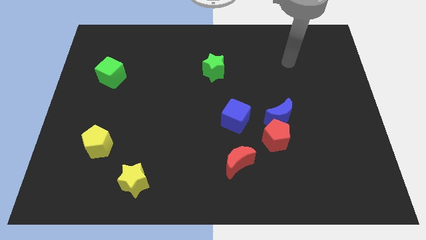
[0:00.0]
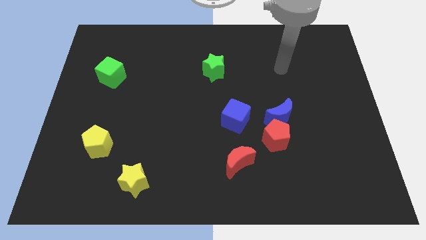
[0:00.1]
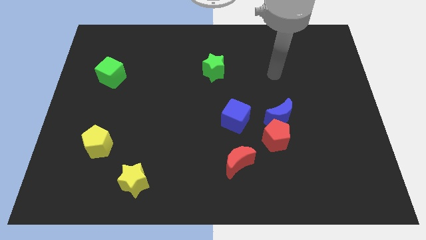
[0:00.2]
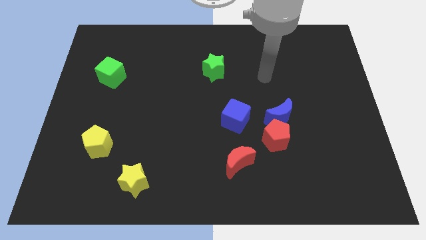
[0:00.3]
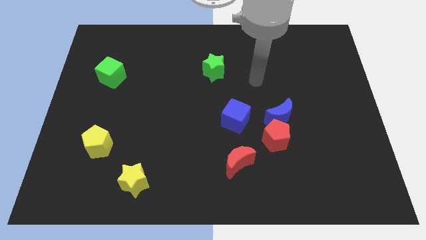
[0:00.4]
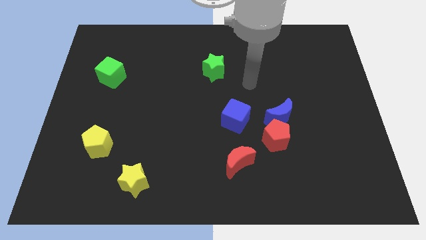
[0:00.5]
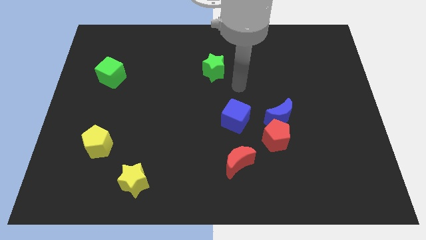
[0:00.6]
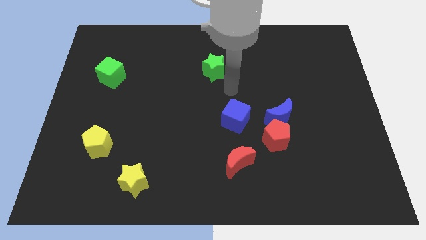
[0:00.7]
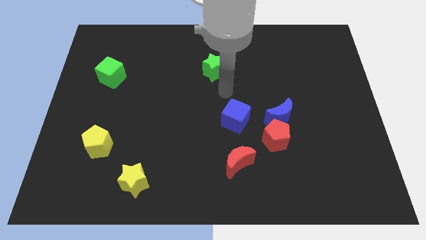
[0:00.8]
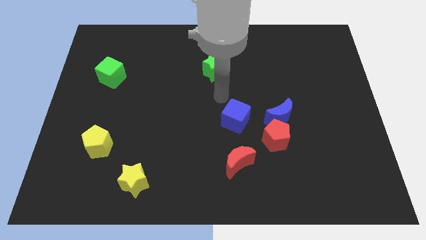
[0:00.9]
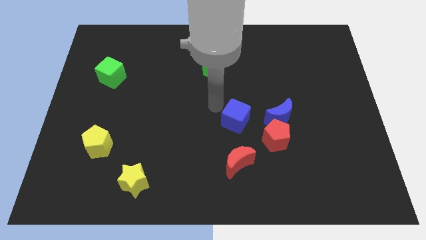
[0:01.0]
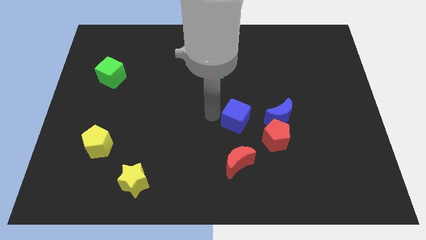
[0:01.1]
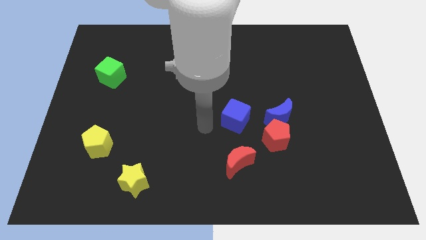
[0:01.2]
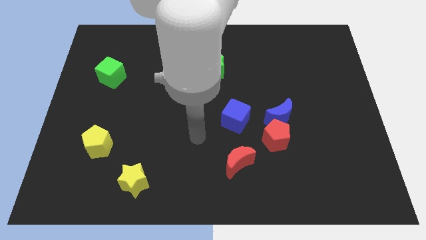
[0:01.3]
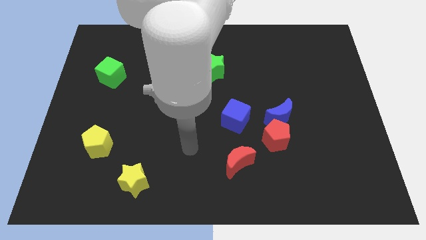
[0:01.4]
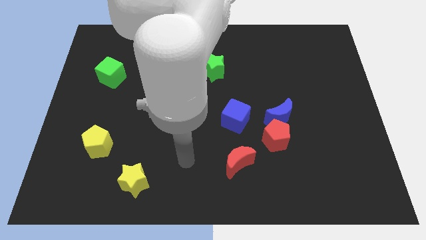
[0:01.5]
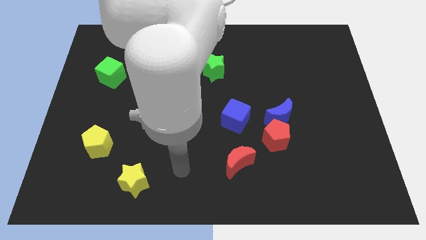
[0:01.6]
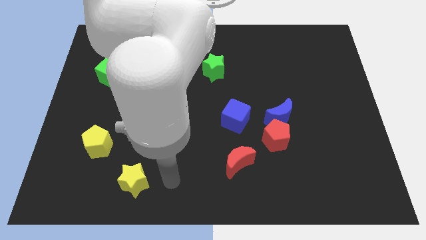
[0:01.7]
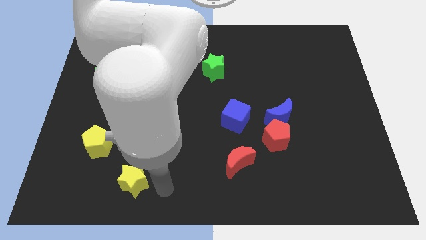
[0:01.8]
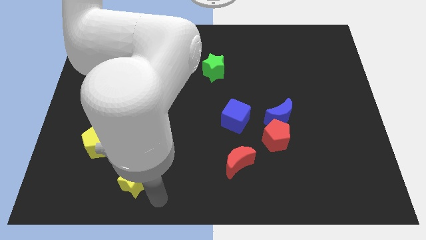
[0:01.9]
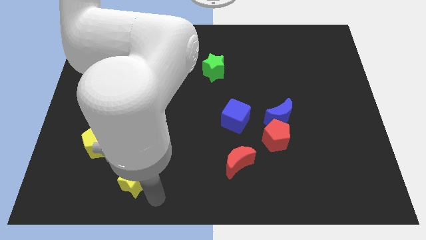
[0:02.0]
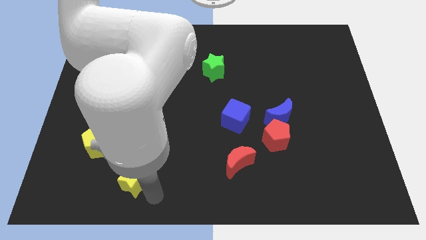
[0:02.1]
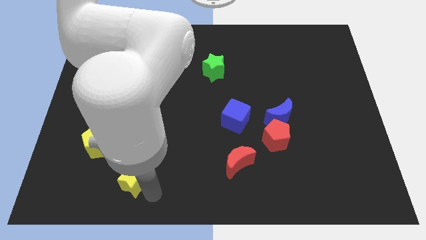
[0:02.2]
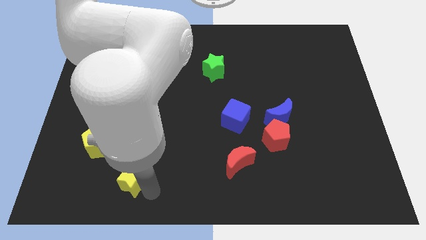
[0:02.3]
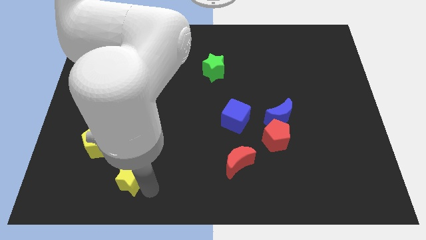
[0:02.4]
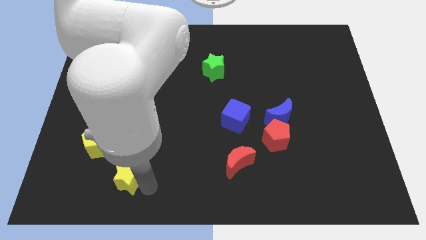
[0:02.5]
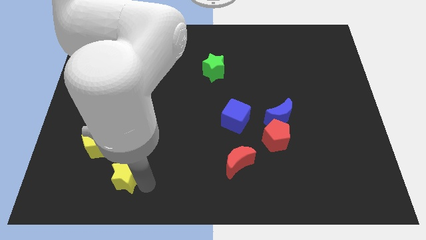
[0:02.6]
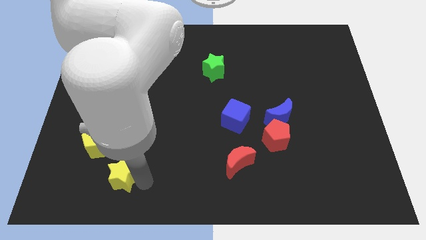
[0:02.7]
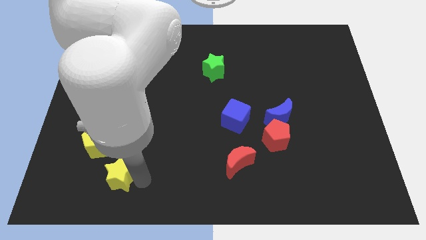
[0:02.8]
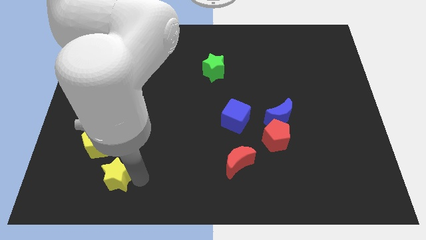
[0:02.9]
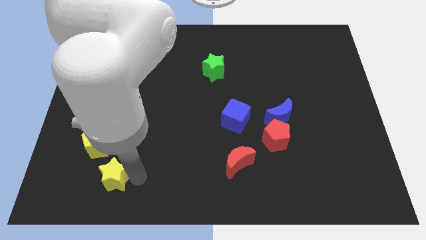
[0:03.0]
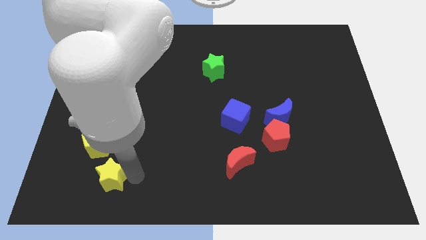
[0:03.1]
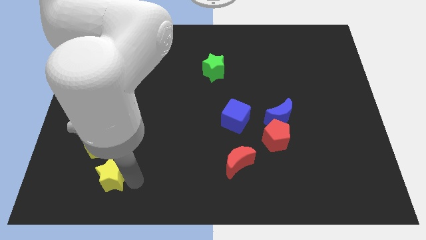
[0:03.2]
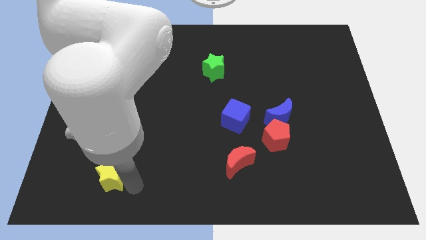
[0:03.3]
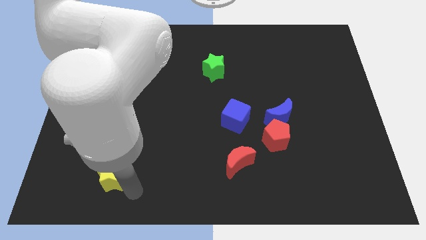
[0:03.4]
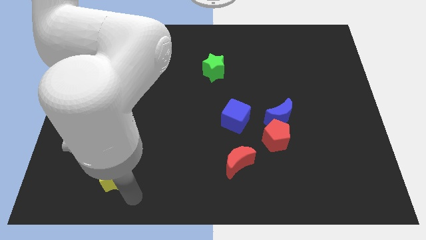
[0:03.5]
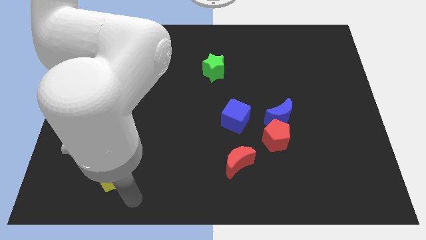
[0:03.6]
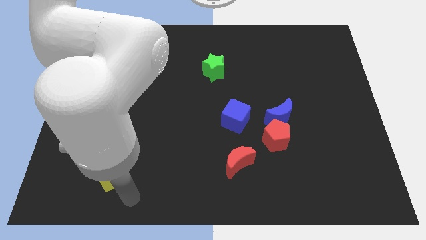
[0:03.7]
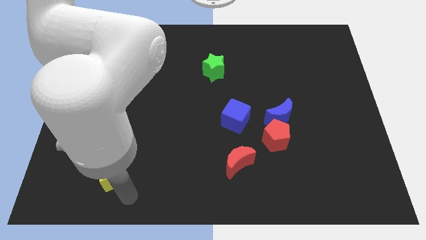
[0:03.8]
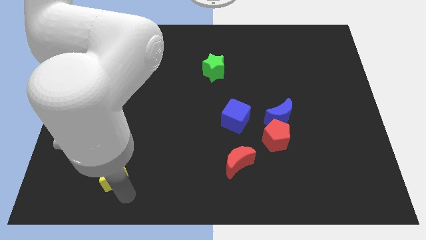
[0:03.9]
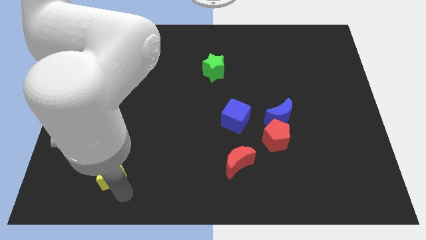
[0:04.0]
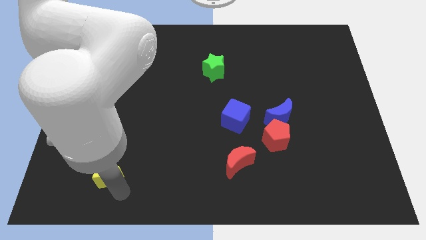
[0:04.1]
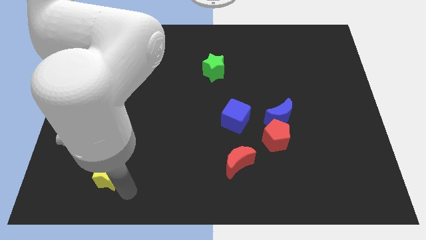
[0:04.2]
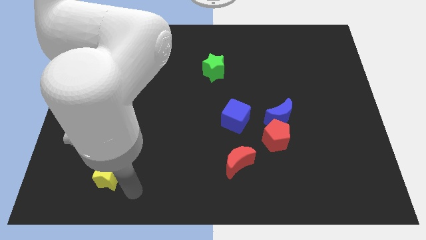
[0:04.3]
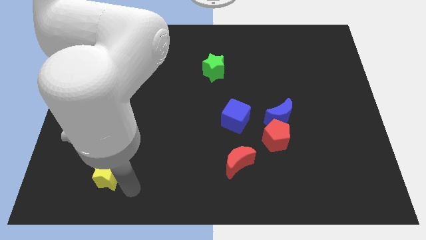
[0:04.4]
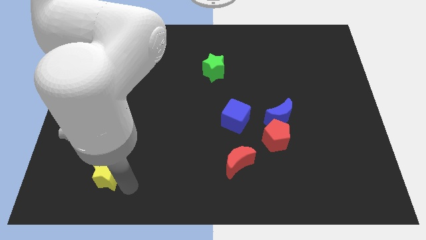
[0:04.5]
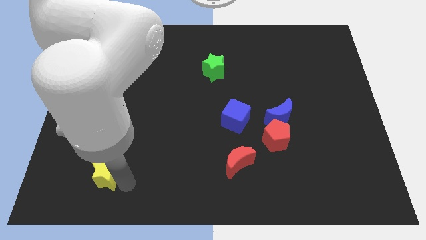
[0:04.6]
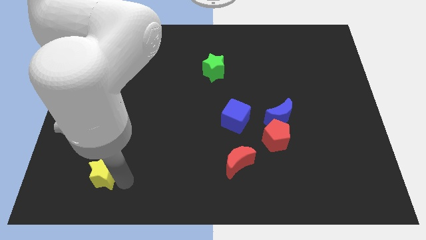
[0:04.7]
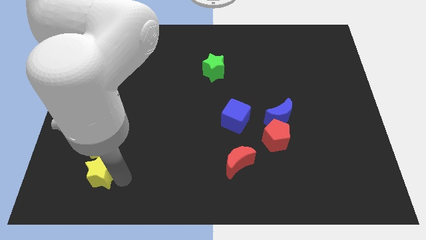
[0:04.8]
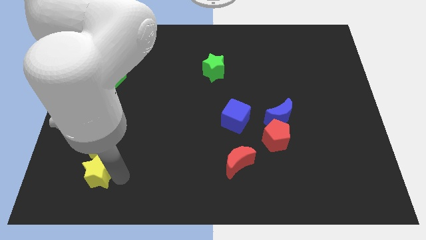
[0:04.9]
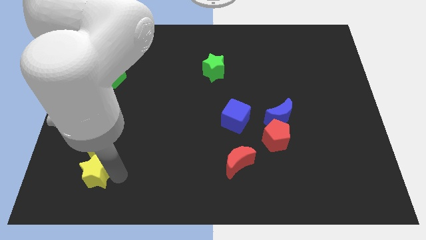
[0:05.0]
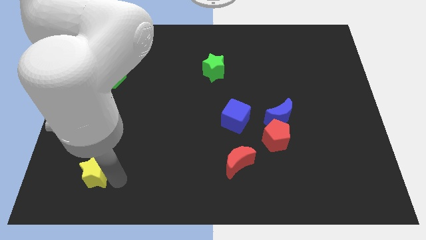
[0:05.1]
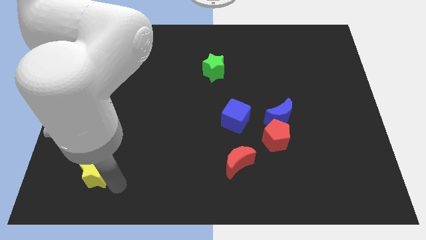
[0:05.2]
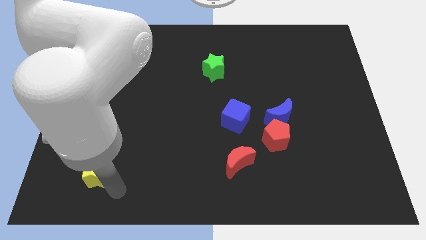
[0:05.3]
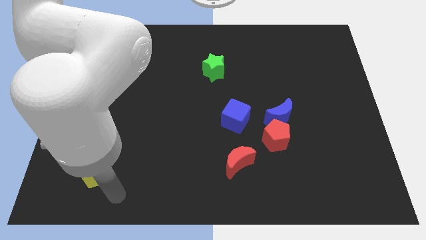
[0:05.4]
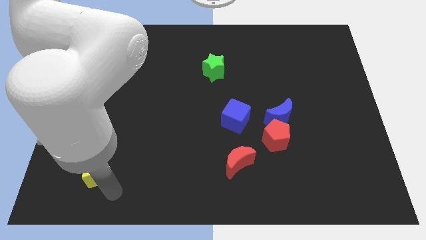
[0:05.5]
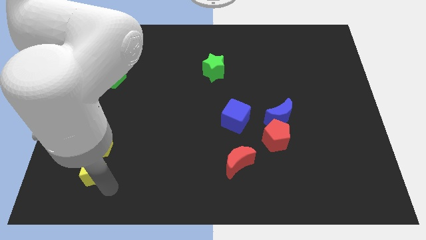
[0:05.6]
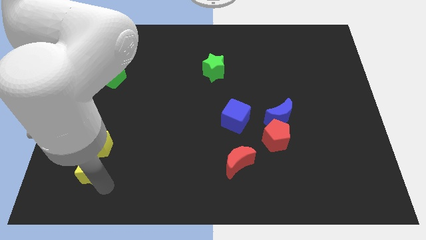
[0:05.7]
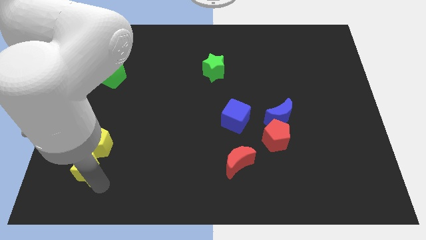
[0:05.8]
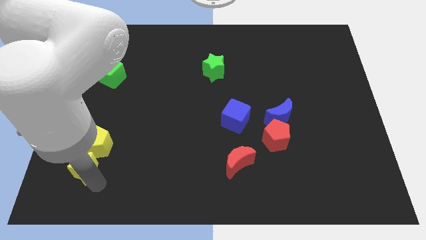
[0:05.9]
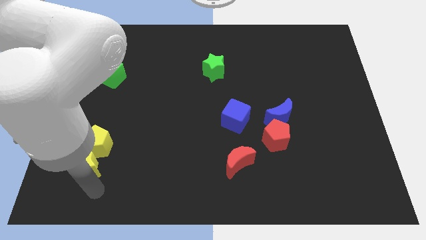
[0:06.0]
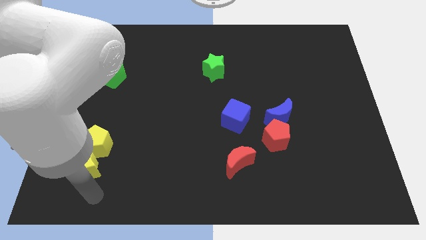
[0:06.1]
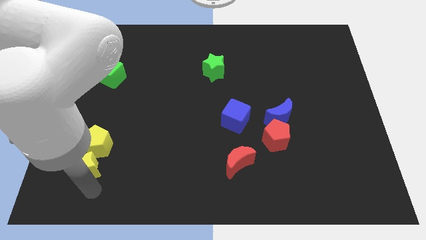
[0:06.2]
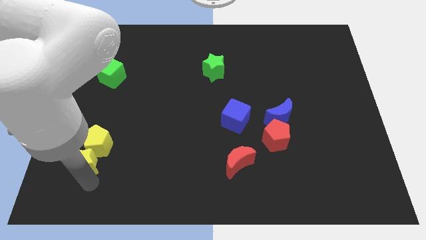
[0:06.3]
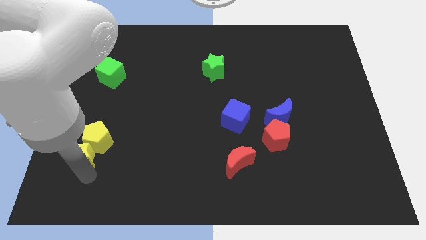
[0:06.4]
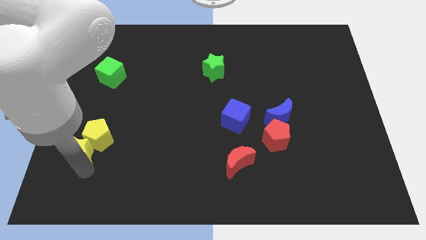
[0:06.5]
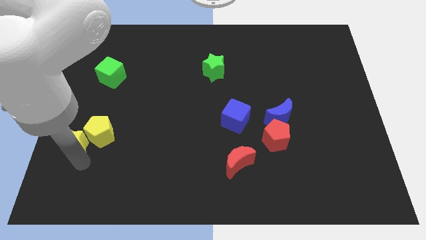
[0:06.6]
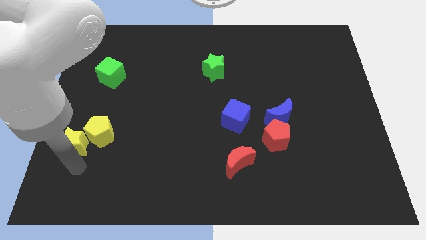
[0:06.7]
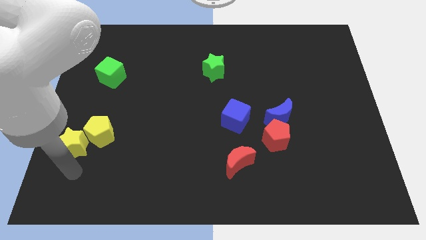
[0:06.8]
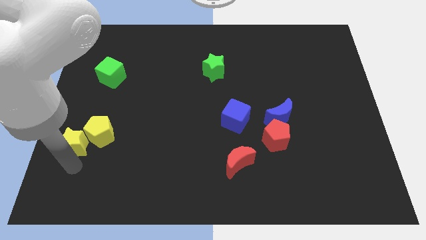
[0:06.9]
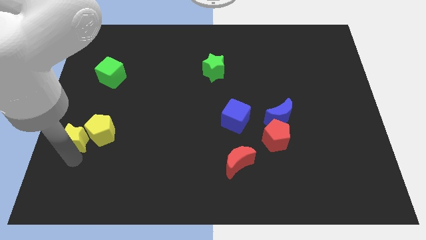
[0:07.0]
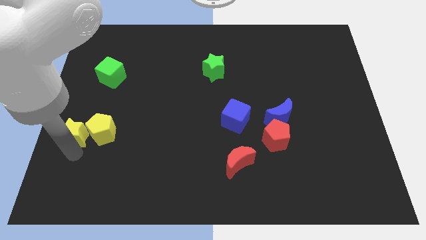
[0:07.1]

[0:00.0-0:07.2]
move the yellow star to the left side of the board
